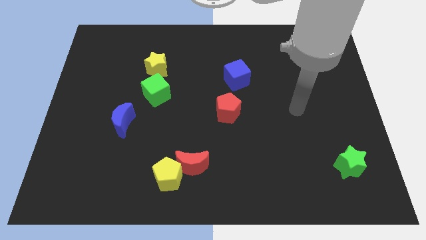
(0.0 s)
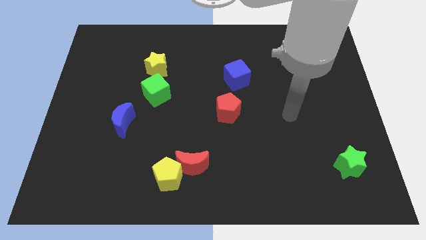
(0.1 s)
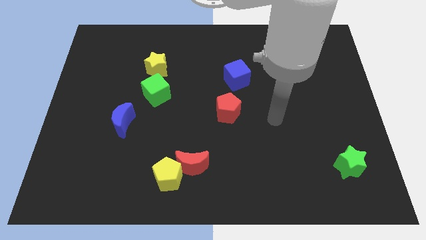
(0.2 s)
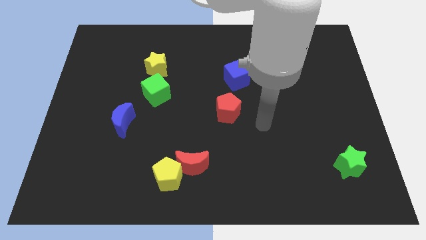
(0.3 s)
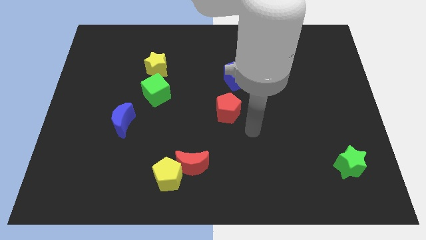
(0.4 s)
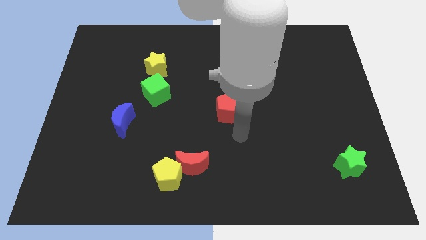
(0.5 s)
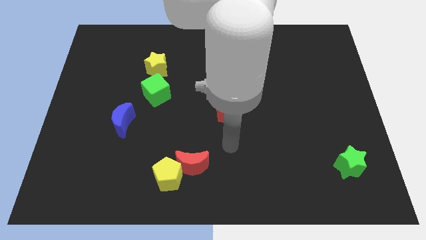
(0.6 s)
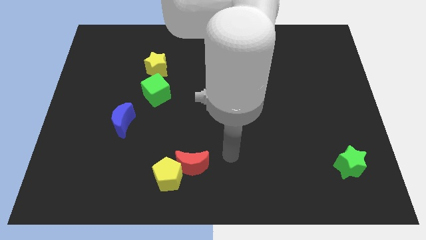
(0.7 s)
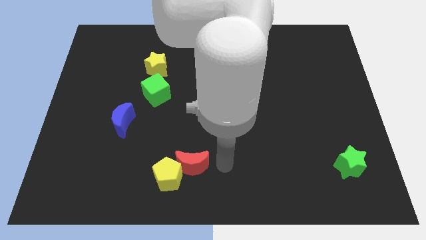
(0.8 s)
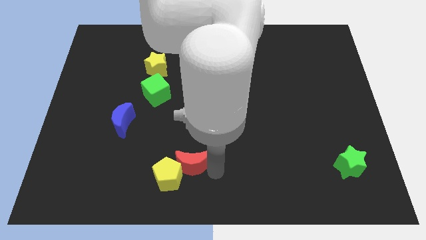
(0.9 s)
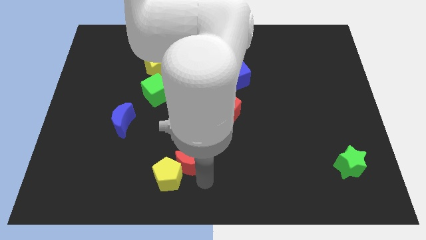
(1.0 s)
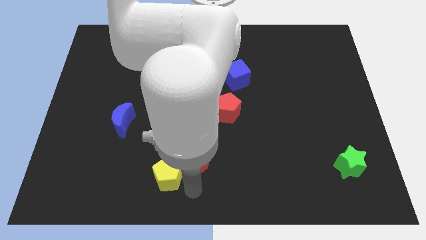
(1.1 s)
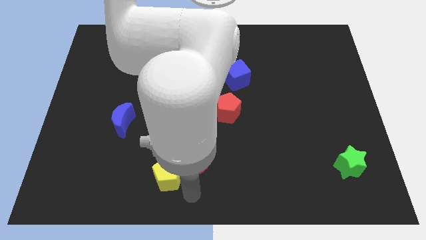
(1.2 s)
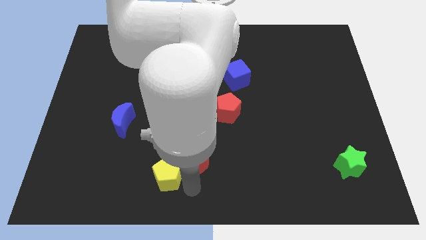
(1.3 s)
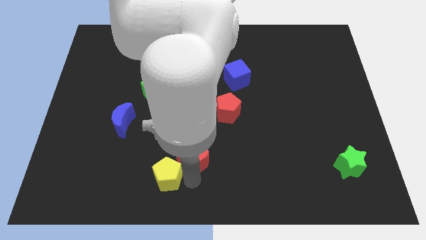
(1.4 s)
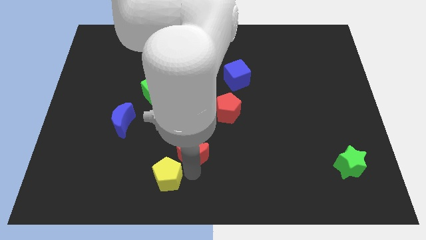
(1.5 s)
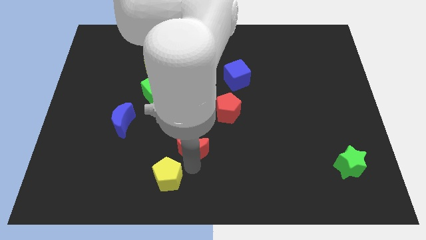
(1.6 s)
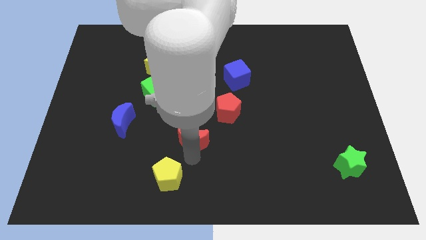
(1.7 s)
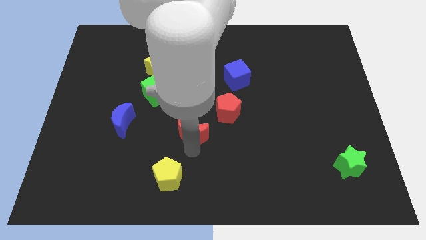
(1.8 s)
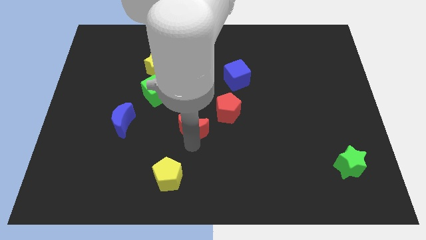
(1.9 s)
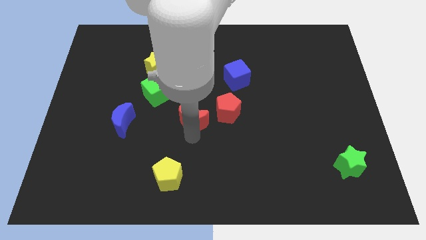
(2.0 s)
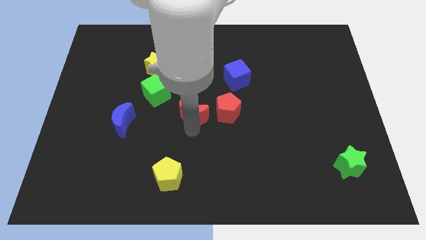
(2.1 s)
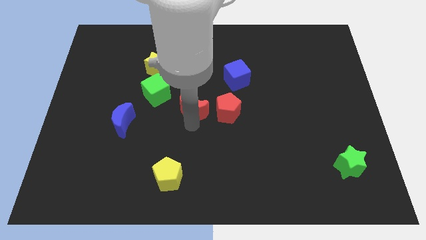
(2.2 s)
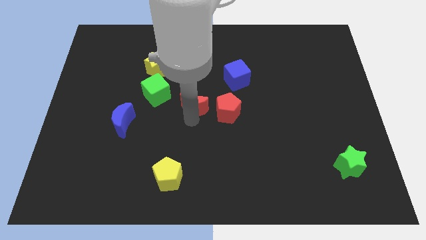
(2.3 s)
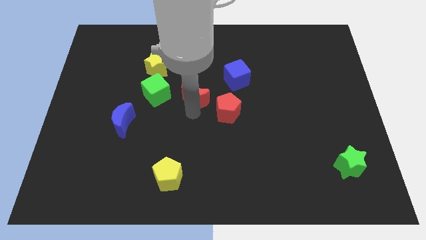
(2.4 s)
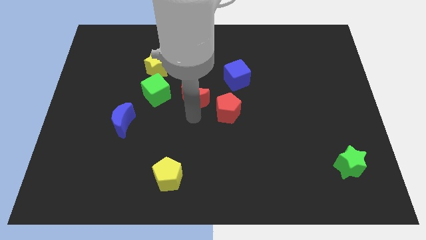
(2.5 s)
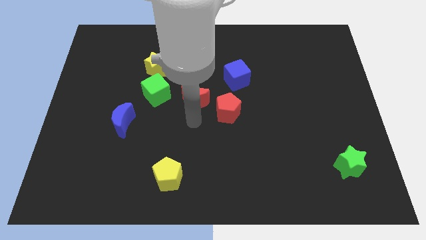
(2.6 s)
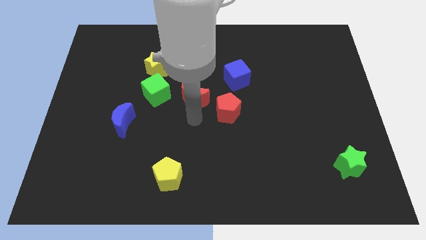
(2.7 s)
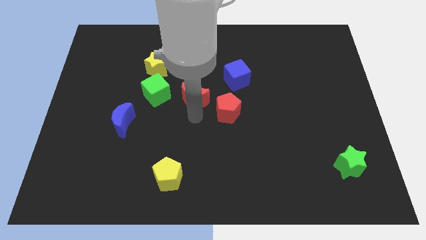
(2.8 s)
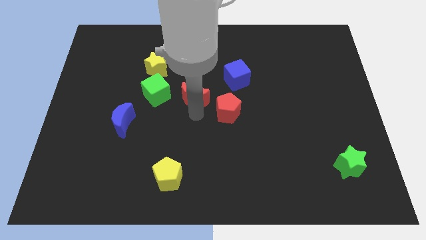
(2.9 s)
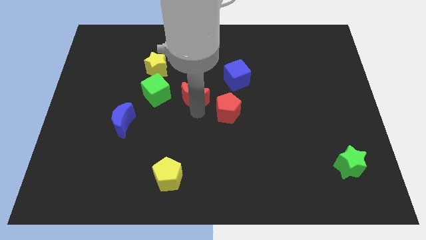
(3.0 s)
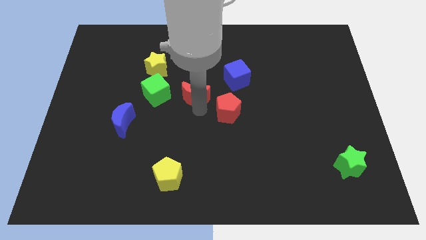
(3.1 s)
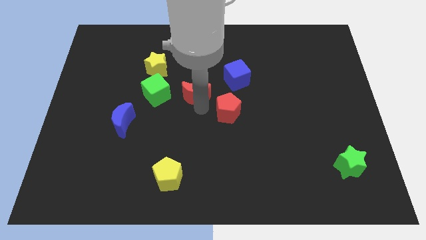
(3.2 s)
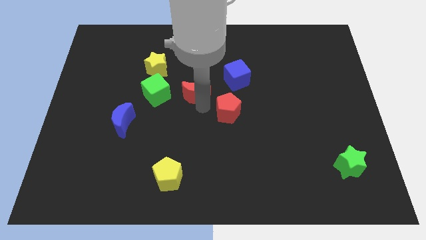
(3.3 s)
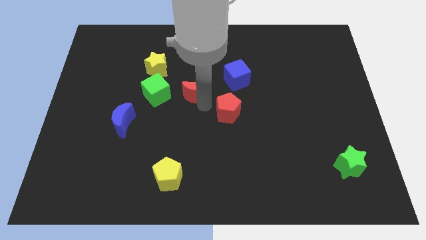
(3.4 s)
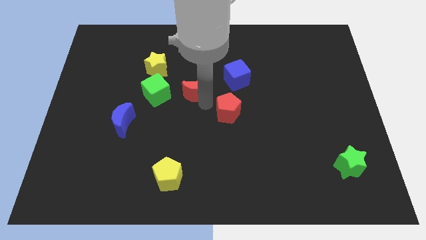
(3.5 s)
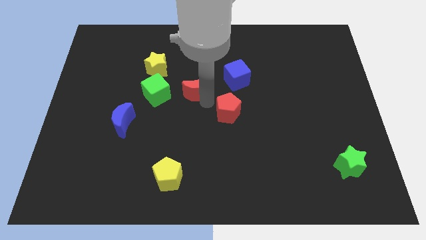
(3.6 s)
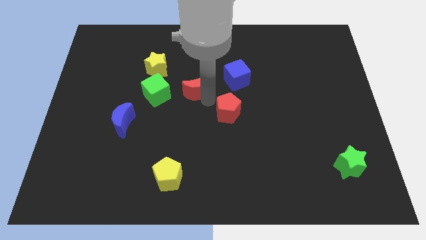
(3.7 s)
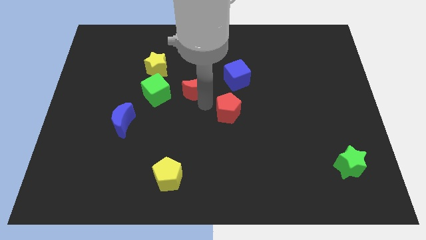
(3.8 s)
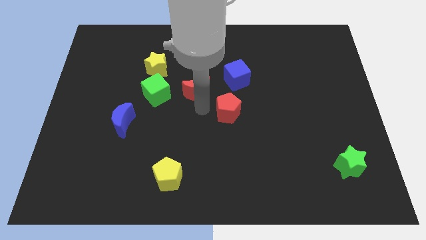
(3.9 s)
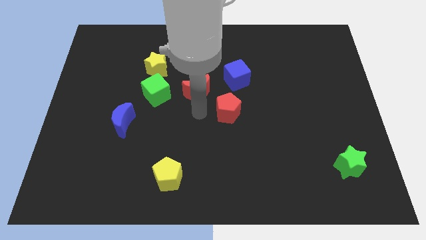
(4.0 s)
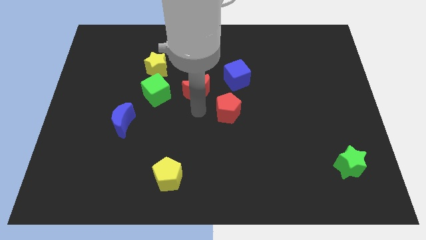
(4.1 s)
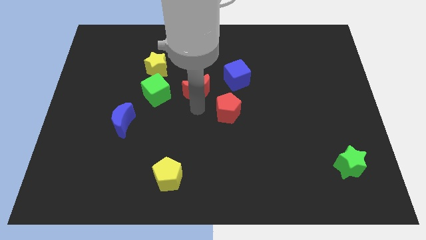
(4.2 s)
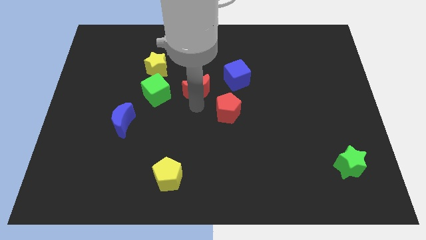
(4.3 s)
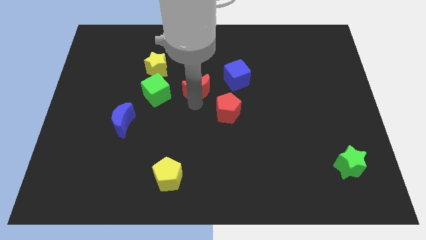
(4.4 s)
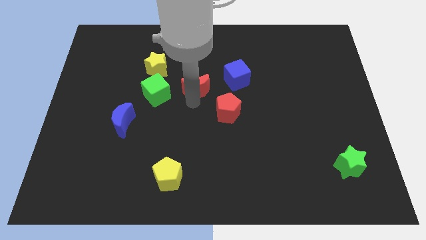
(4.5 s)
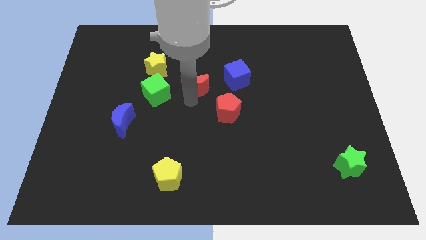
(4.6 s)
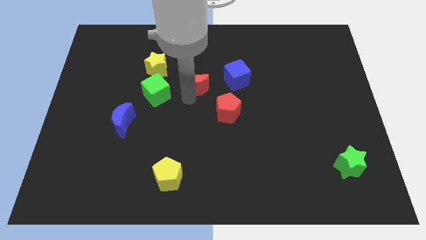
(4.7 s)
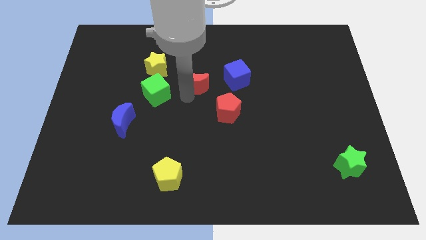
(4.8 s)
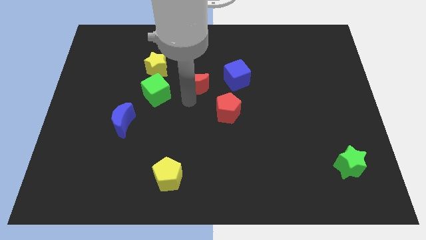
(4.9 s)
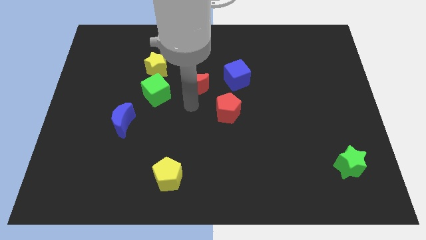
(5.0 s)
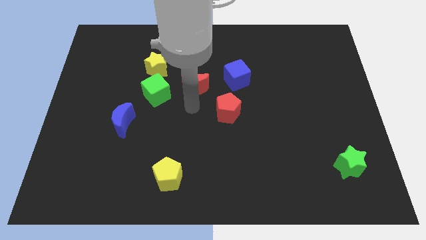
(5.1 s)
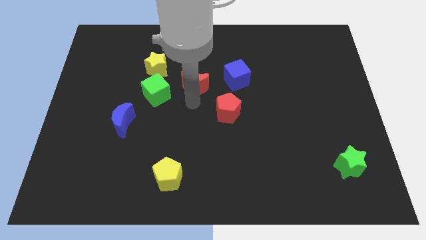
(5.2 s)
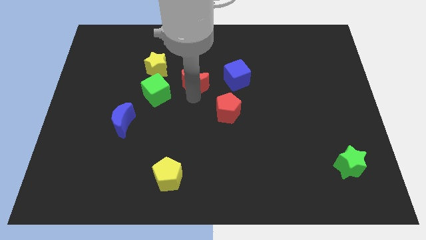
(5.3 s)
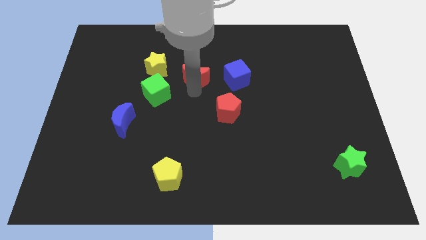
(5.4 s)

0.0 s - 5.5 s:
slide the red moon to the right side of the yellow star

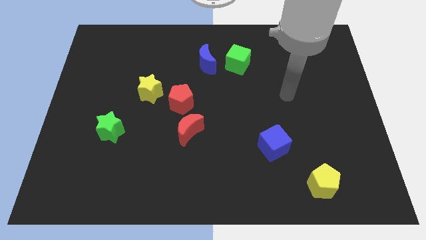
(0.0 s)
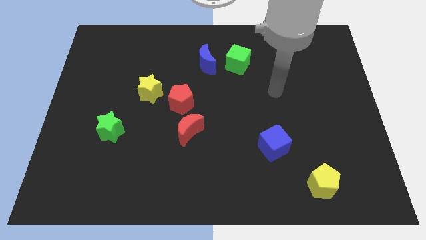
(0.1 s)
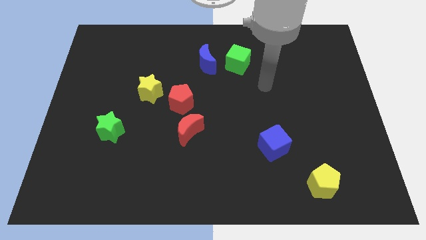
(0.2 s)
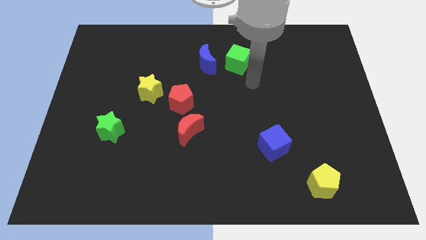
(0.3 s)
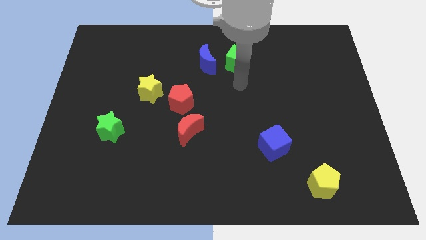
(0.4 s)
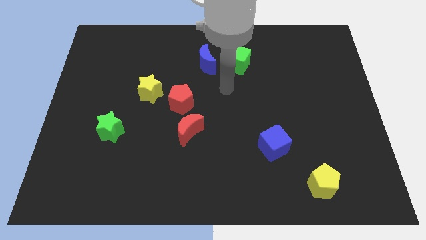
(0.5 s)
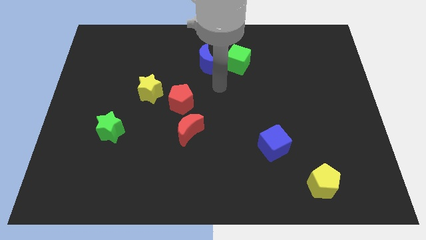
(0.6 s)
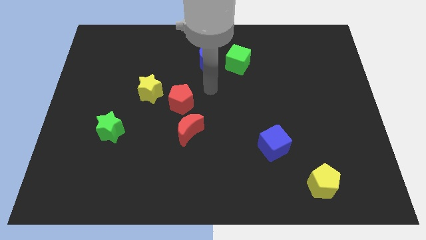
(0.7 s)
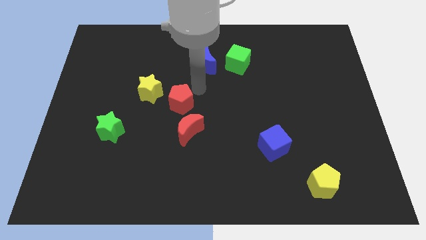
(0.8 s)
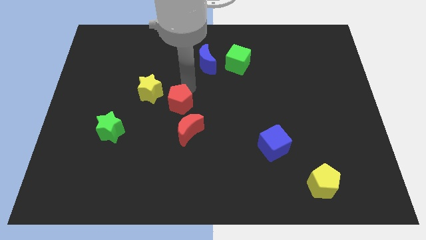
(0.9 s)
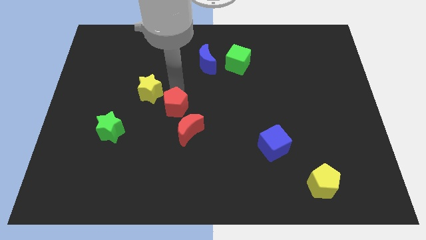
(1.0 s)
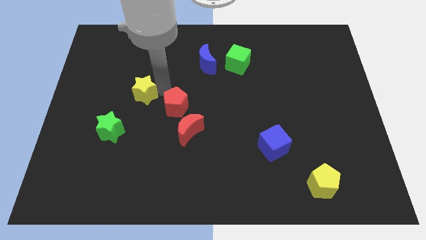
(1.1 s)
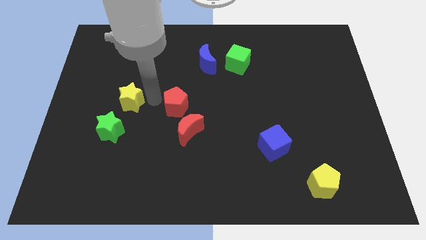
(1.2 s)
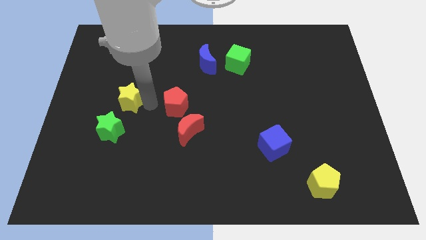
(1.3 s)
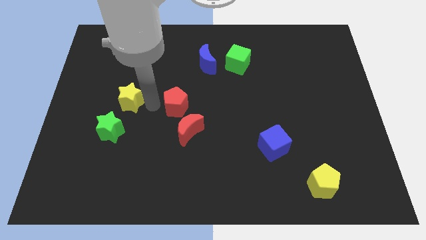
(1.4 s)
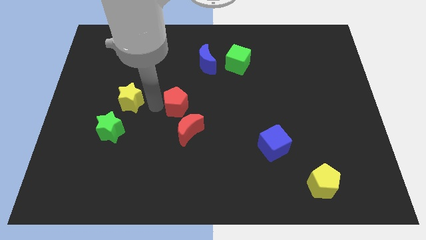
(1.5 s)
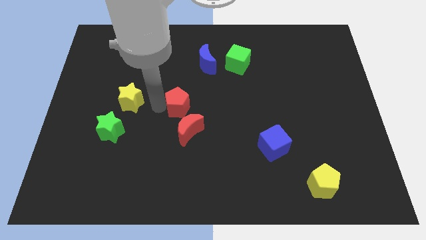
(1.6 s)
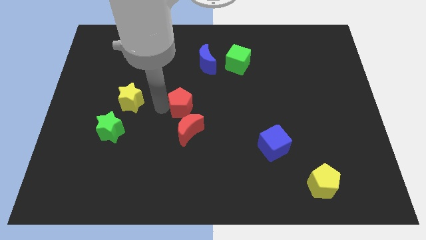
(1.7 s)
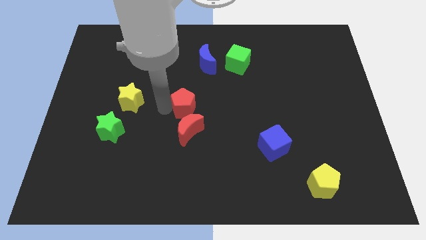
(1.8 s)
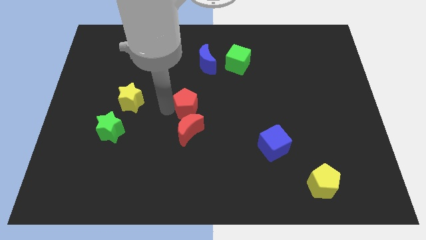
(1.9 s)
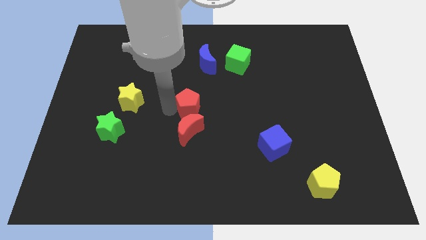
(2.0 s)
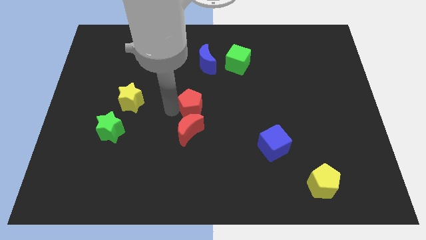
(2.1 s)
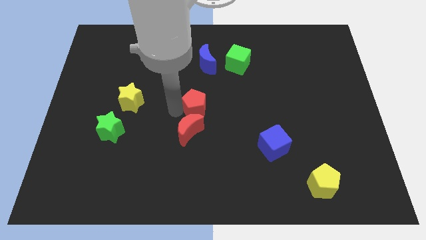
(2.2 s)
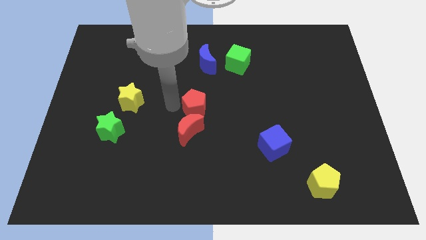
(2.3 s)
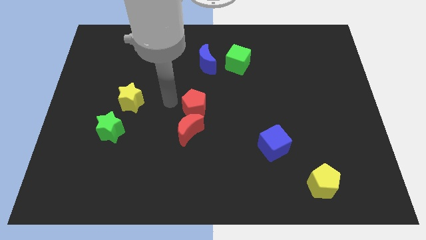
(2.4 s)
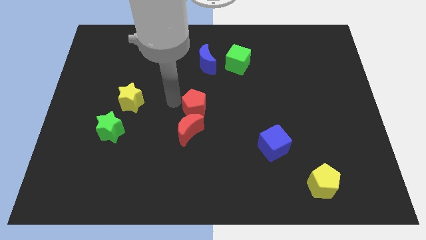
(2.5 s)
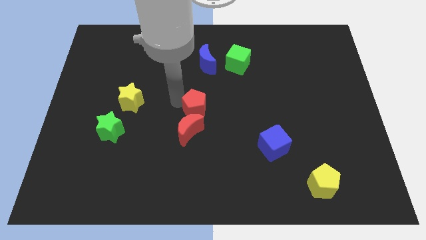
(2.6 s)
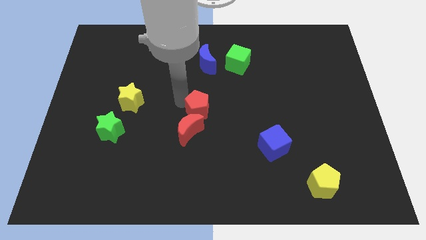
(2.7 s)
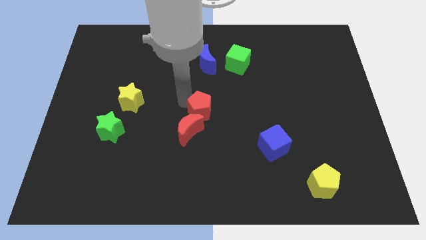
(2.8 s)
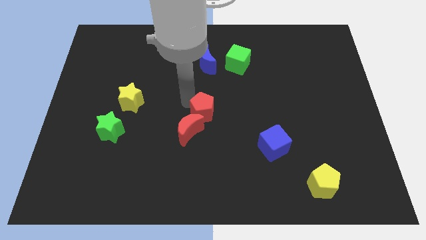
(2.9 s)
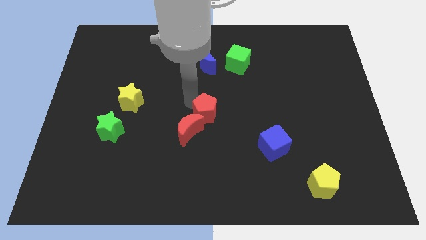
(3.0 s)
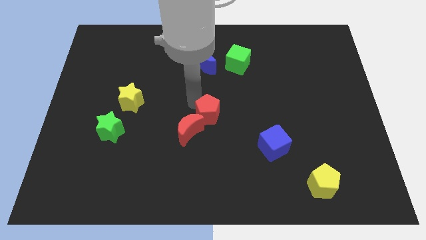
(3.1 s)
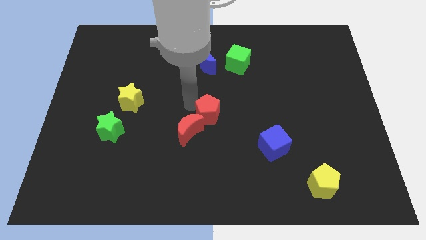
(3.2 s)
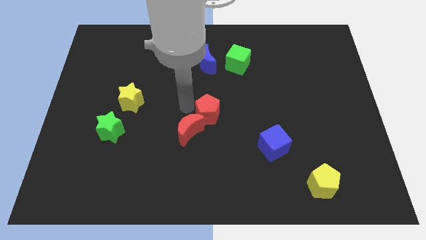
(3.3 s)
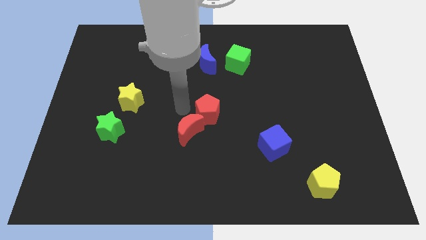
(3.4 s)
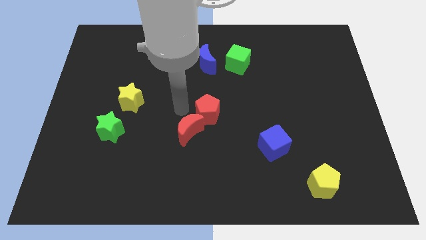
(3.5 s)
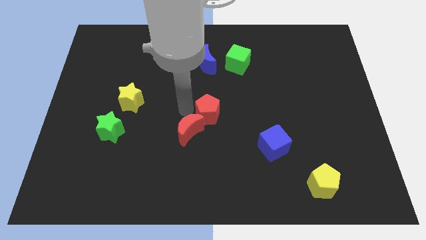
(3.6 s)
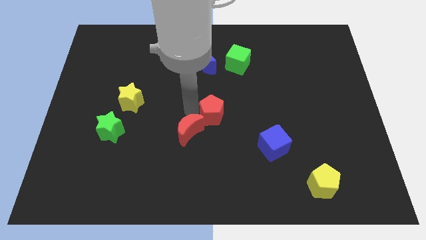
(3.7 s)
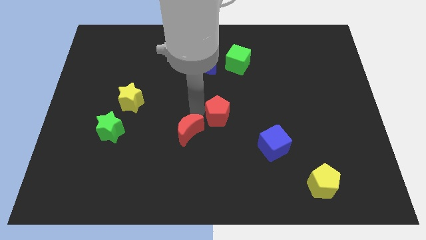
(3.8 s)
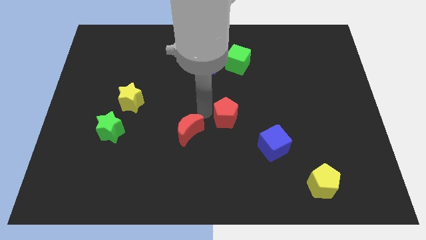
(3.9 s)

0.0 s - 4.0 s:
slide the red pentagon diagonally up and to the left of the blue cube
